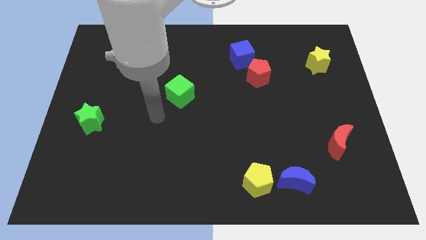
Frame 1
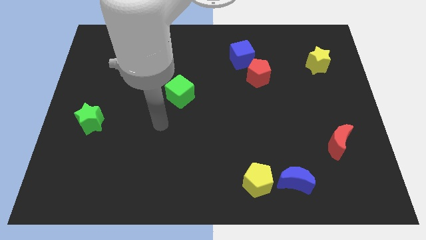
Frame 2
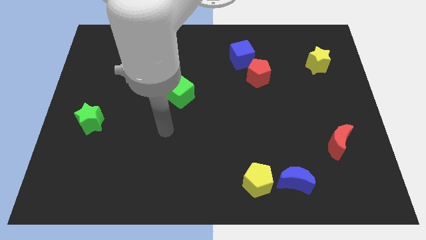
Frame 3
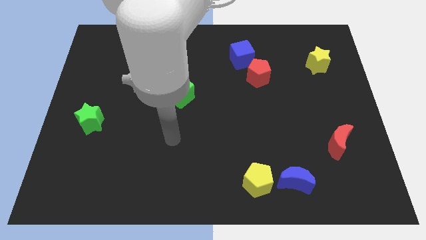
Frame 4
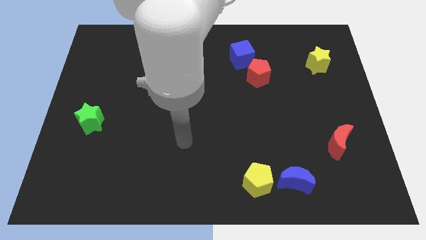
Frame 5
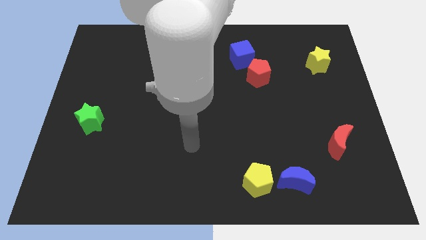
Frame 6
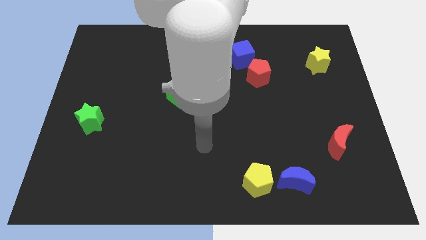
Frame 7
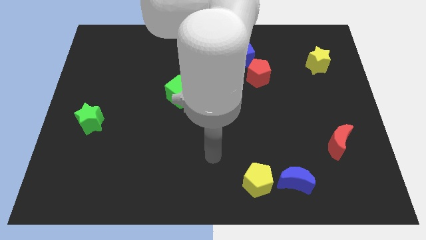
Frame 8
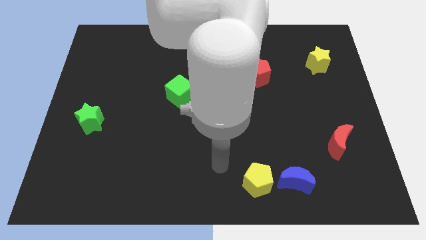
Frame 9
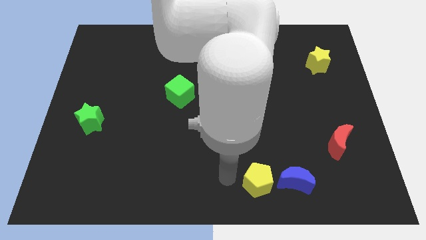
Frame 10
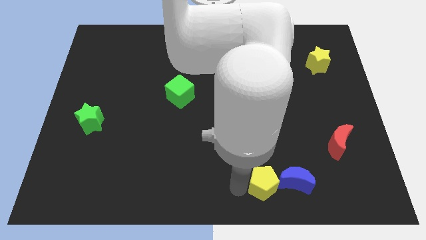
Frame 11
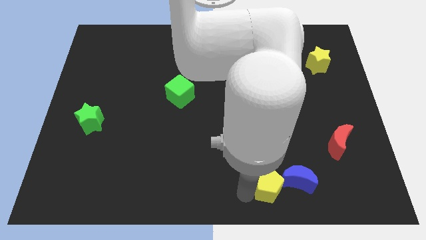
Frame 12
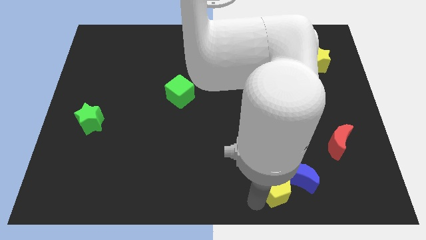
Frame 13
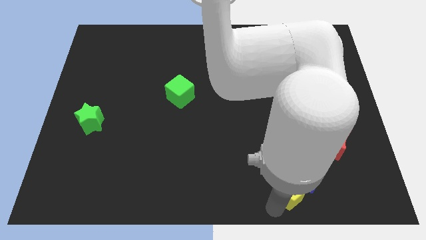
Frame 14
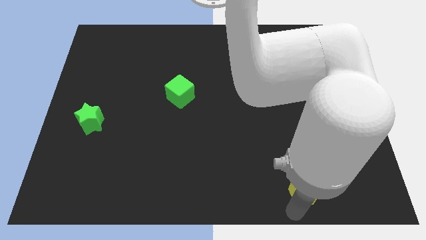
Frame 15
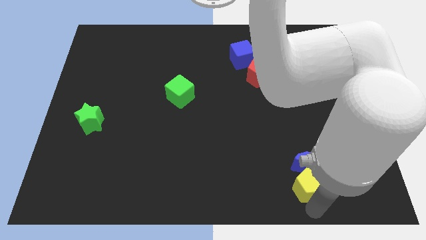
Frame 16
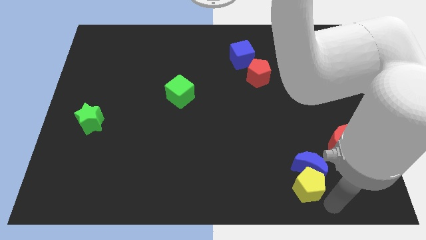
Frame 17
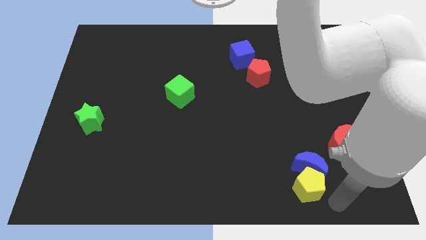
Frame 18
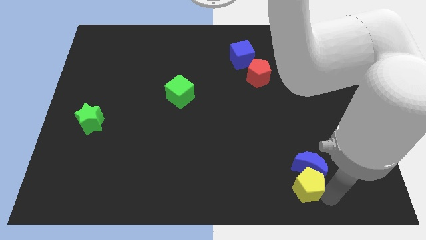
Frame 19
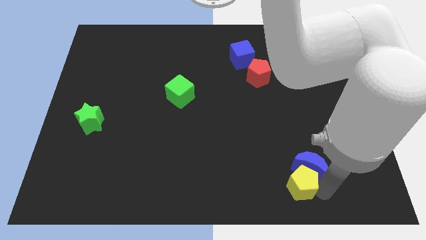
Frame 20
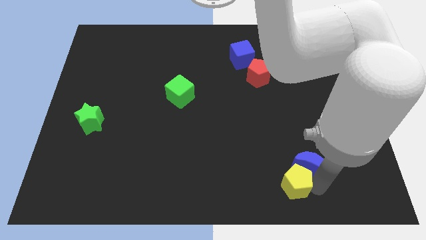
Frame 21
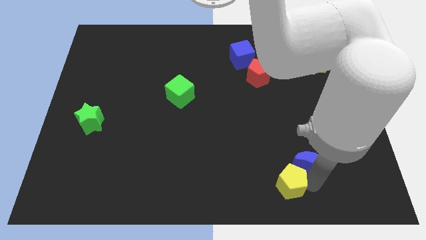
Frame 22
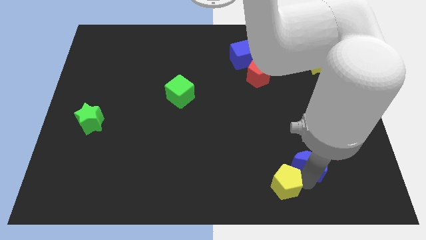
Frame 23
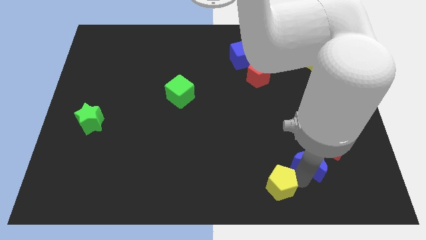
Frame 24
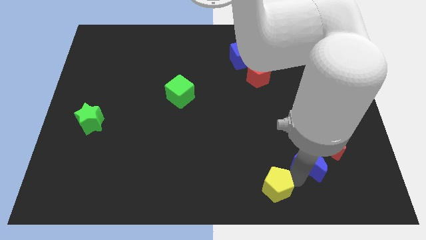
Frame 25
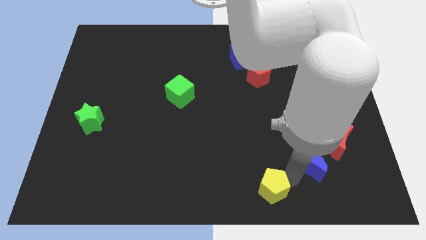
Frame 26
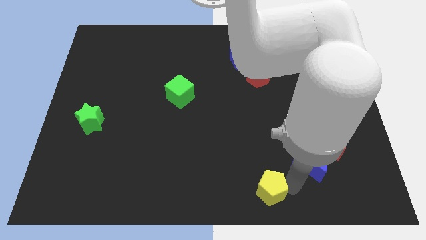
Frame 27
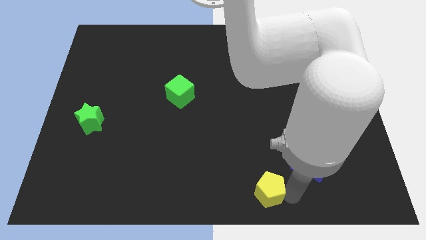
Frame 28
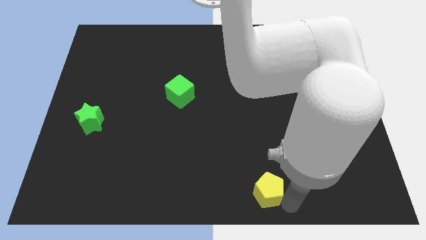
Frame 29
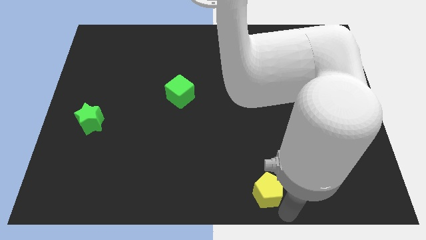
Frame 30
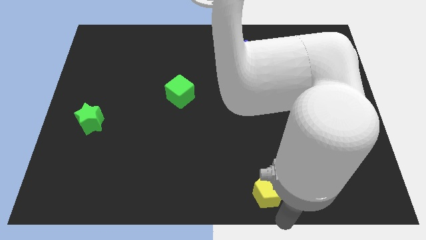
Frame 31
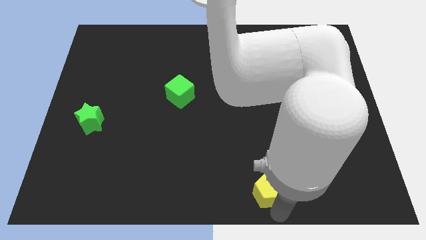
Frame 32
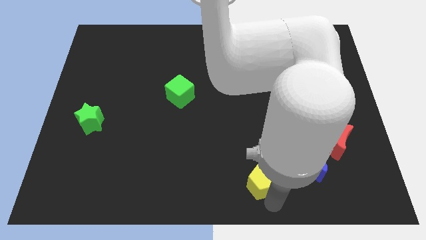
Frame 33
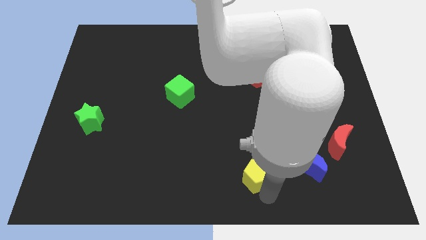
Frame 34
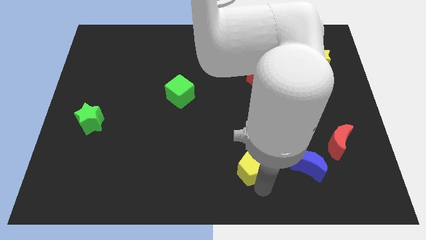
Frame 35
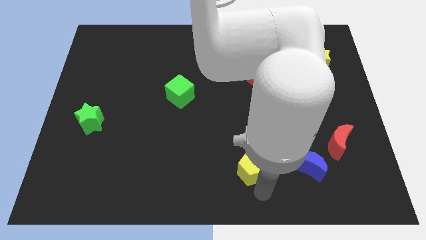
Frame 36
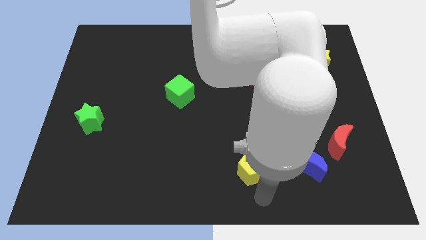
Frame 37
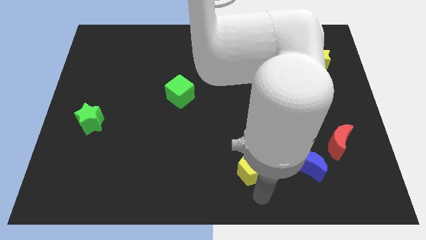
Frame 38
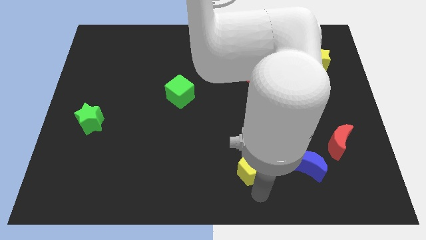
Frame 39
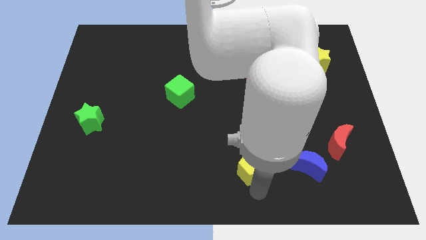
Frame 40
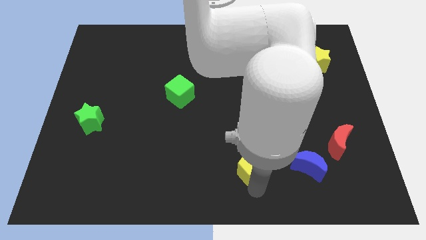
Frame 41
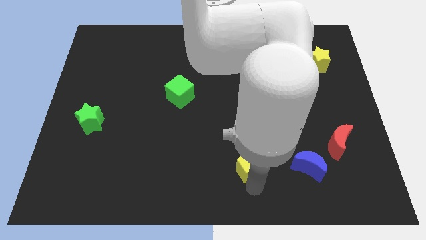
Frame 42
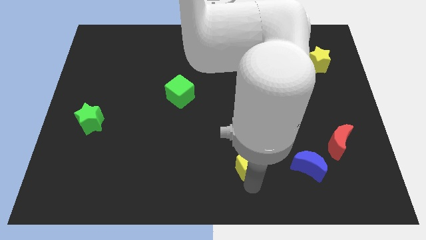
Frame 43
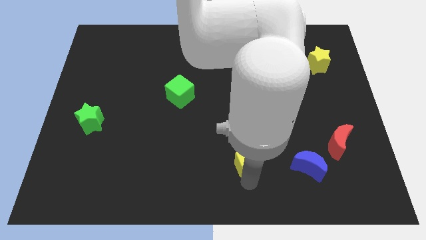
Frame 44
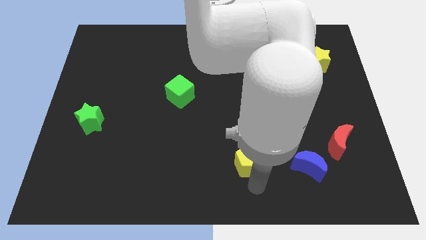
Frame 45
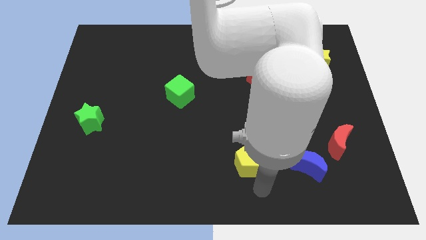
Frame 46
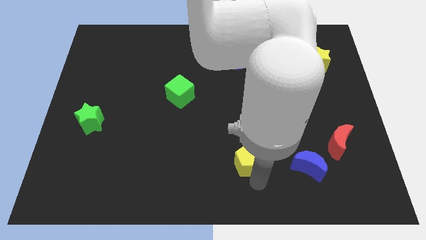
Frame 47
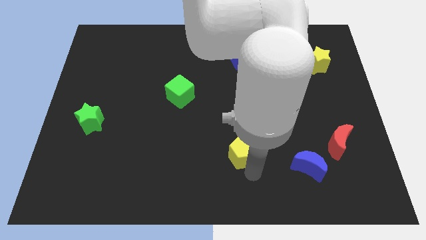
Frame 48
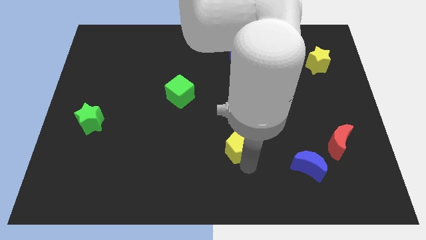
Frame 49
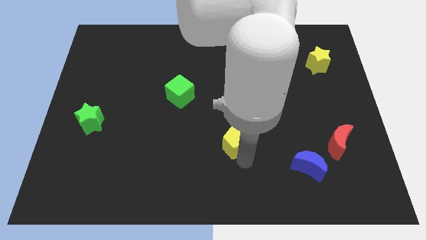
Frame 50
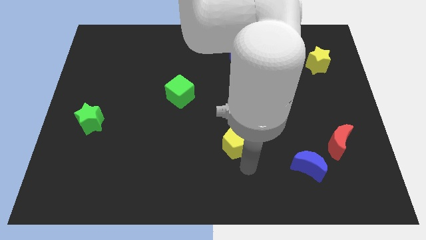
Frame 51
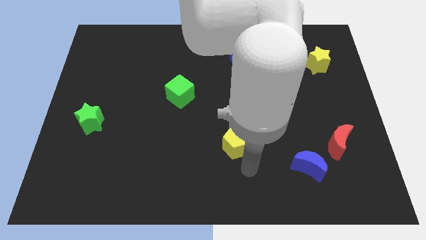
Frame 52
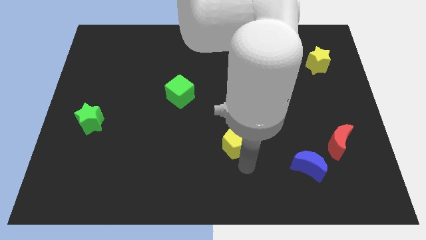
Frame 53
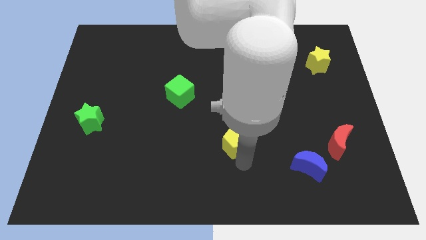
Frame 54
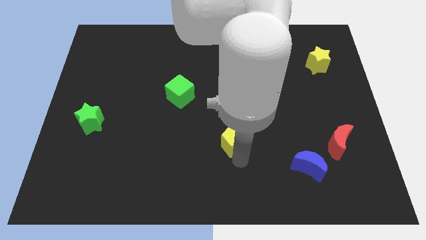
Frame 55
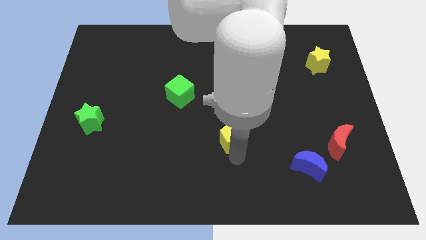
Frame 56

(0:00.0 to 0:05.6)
slide the yellow pentagon to the middle
